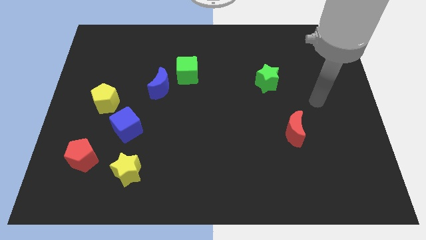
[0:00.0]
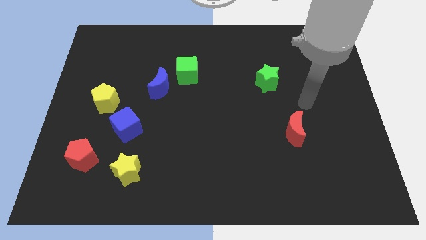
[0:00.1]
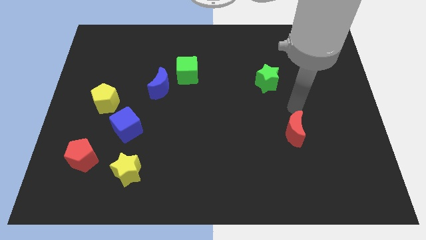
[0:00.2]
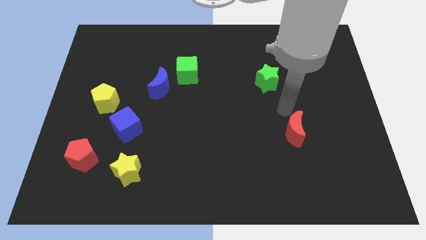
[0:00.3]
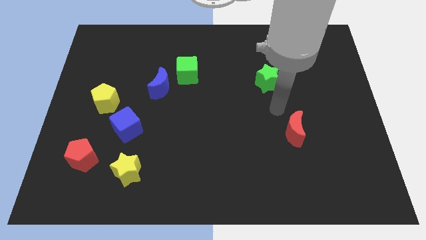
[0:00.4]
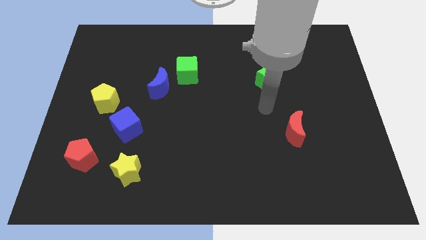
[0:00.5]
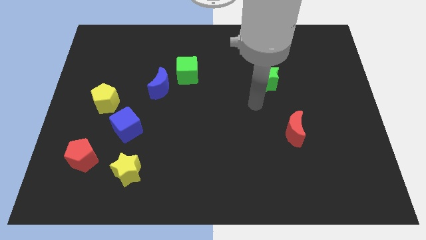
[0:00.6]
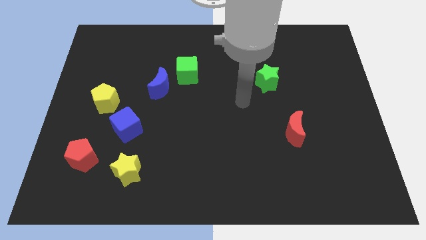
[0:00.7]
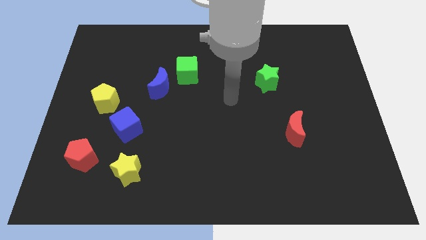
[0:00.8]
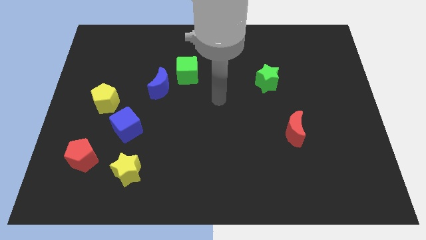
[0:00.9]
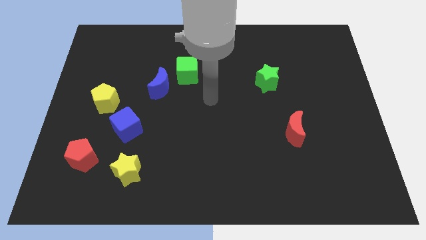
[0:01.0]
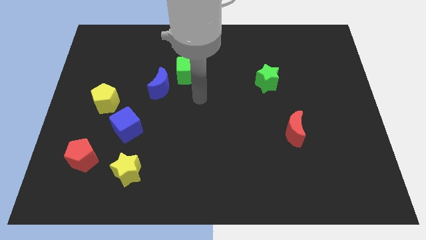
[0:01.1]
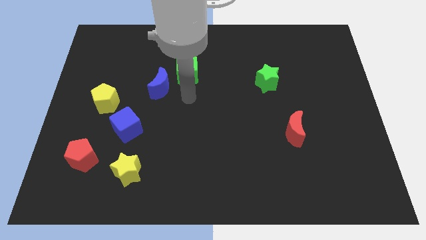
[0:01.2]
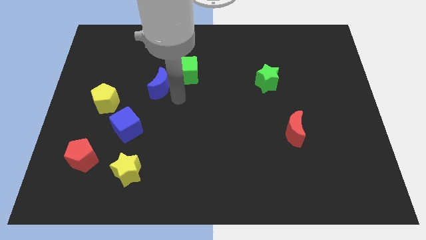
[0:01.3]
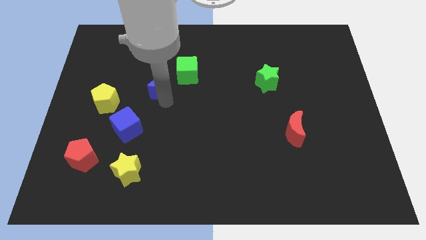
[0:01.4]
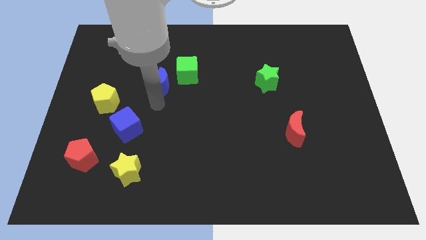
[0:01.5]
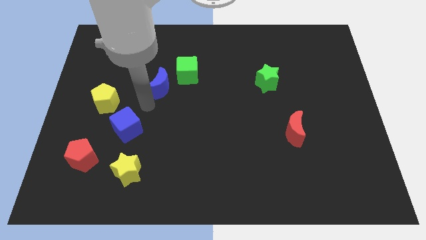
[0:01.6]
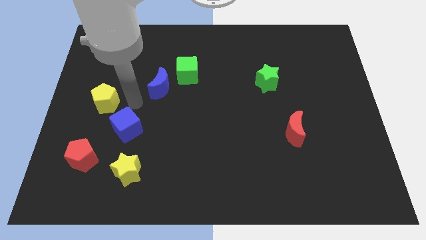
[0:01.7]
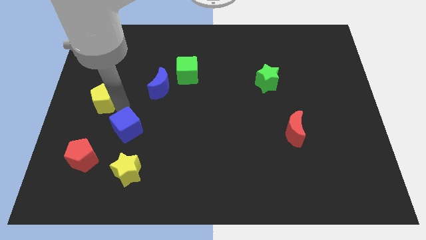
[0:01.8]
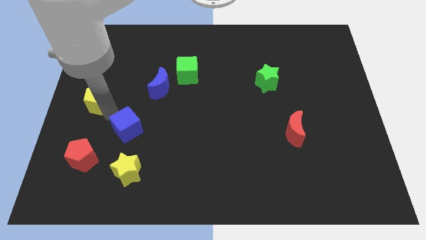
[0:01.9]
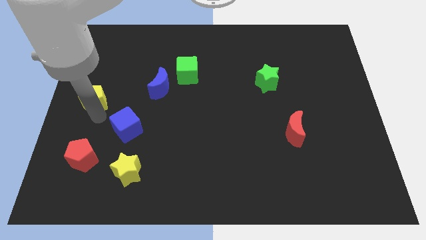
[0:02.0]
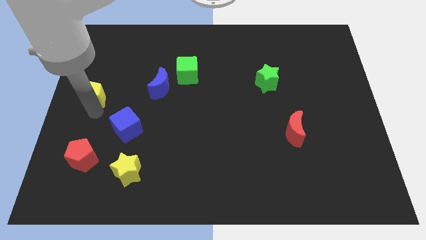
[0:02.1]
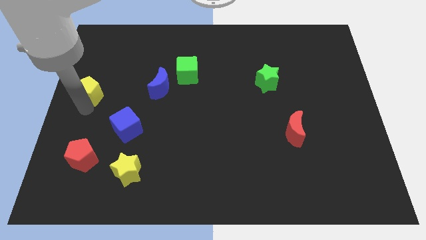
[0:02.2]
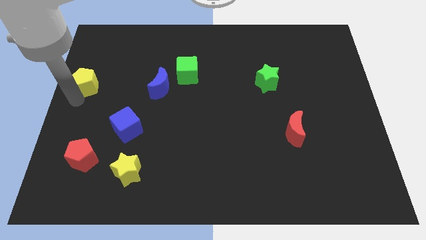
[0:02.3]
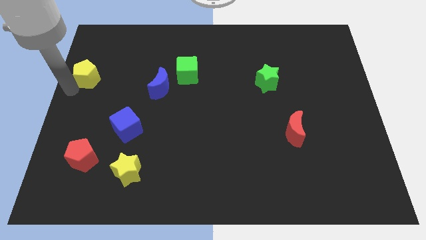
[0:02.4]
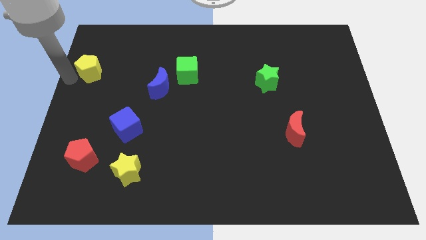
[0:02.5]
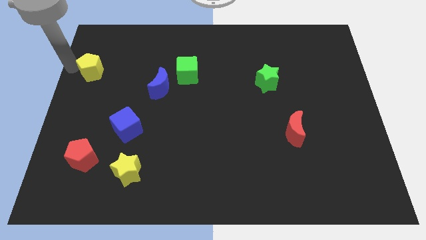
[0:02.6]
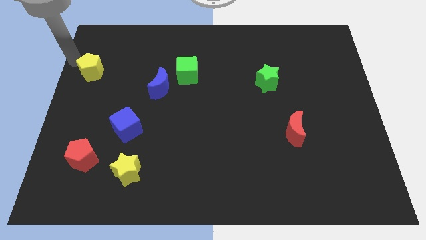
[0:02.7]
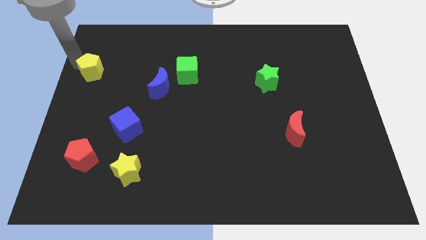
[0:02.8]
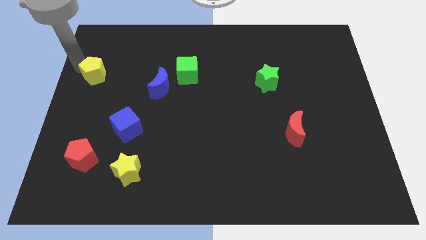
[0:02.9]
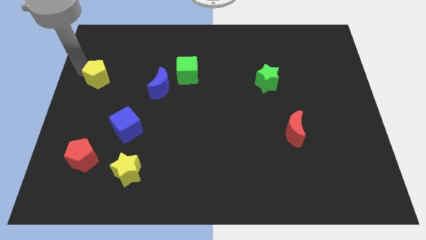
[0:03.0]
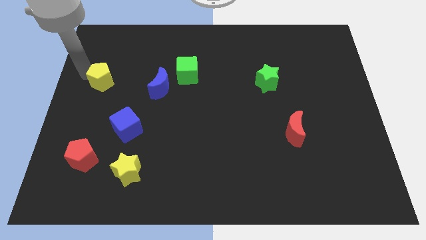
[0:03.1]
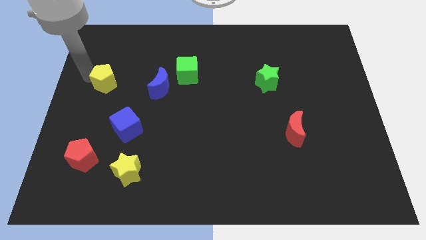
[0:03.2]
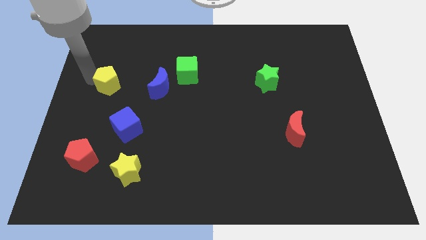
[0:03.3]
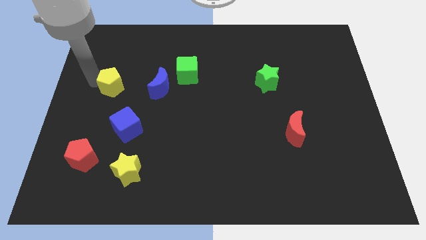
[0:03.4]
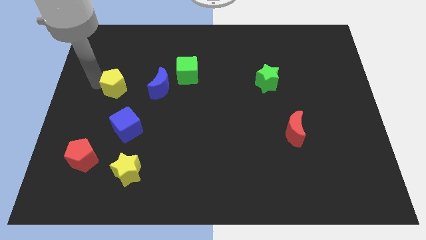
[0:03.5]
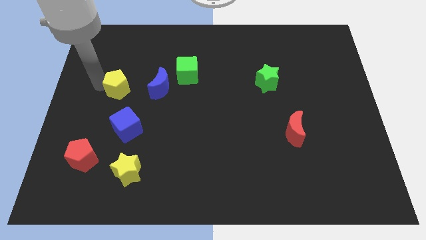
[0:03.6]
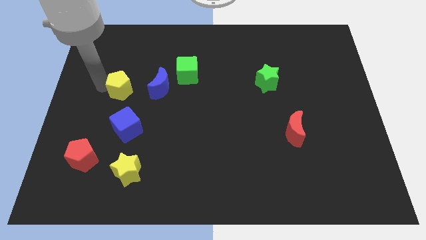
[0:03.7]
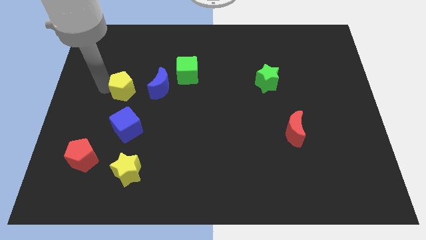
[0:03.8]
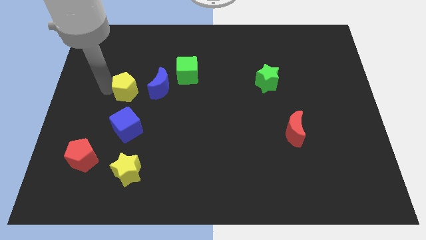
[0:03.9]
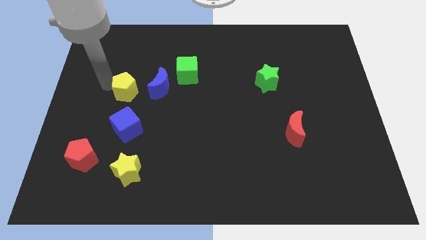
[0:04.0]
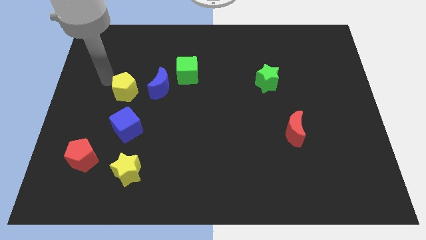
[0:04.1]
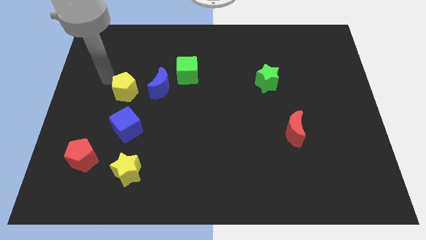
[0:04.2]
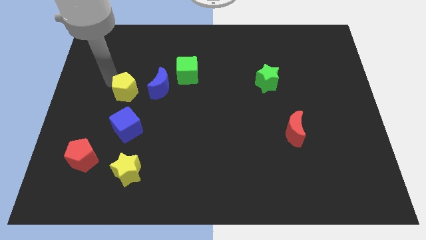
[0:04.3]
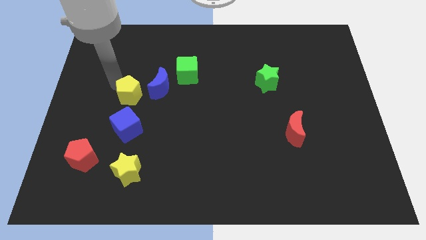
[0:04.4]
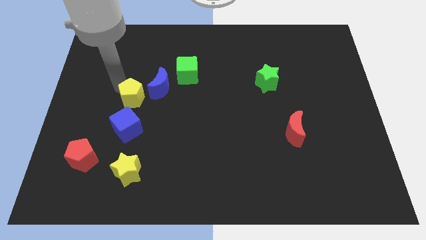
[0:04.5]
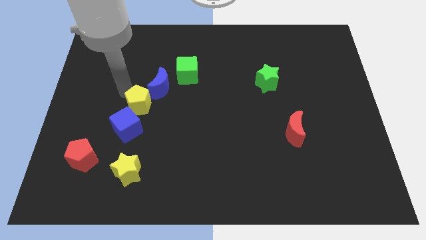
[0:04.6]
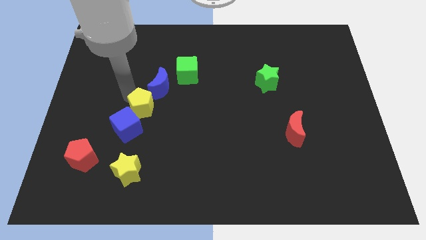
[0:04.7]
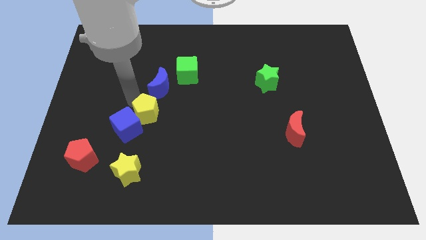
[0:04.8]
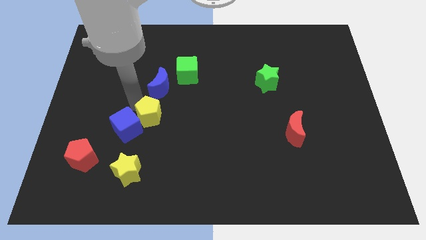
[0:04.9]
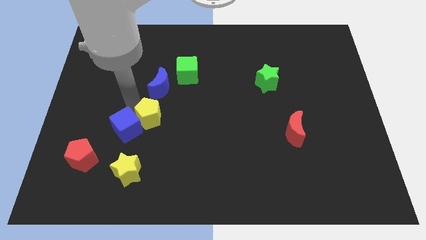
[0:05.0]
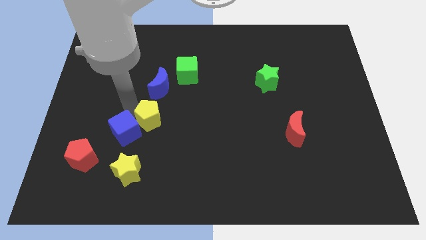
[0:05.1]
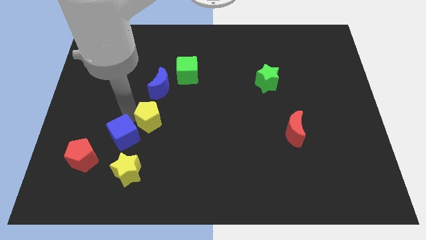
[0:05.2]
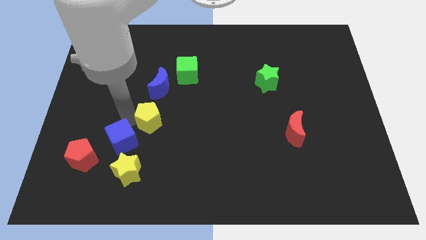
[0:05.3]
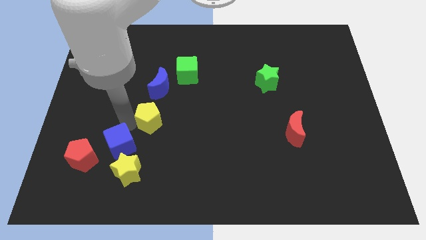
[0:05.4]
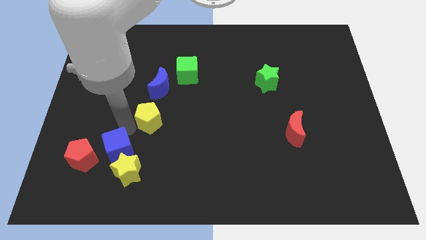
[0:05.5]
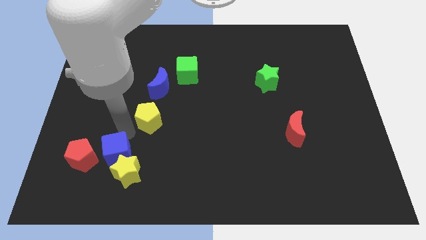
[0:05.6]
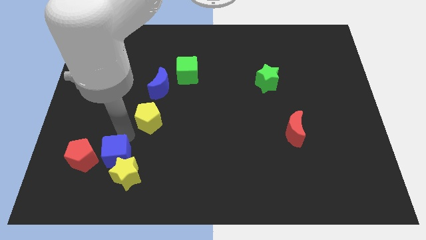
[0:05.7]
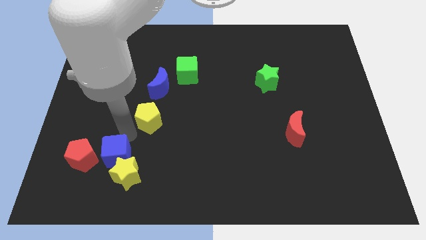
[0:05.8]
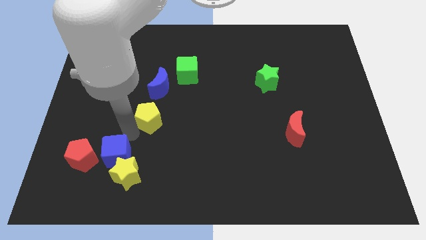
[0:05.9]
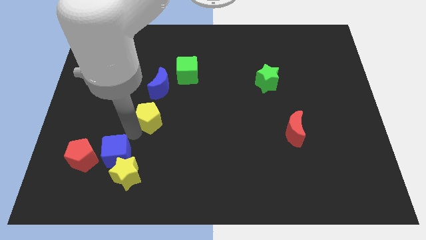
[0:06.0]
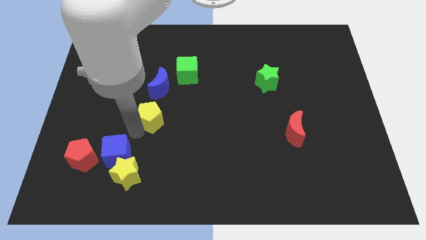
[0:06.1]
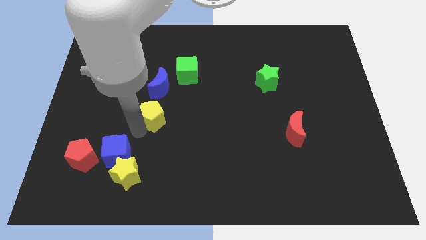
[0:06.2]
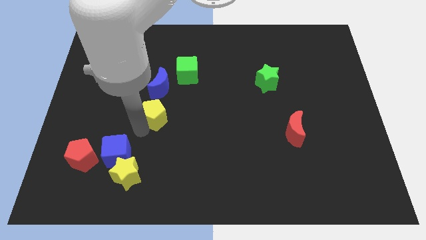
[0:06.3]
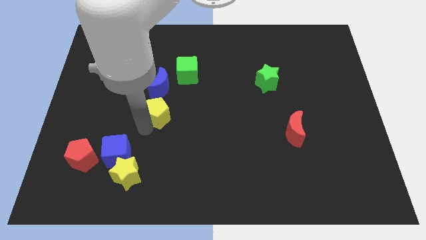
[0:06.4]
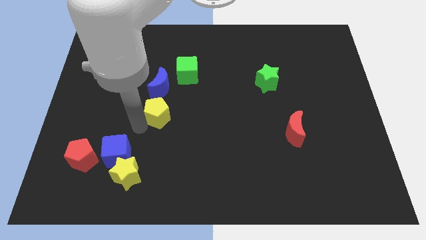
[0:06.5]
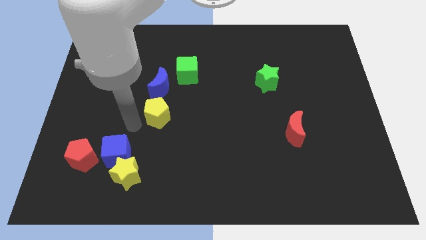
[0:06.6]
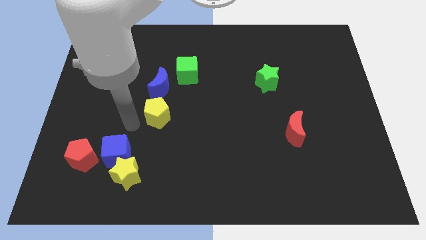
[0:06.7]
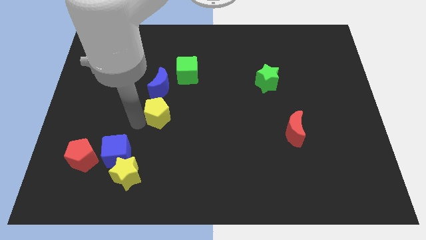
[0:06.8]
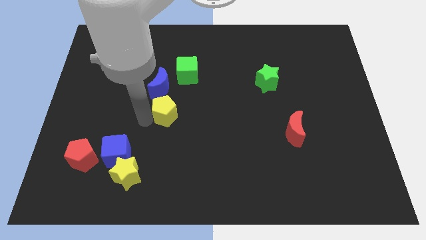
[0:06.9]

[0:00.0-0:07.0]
slide the yellow pentagon to the middle of the board

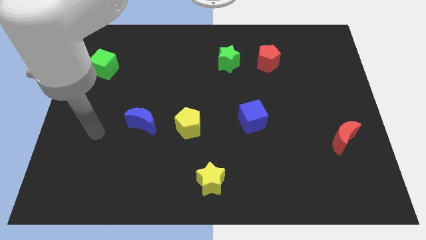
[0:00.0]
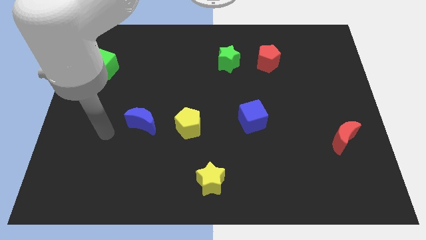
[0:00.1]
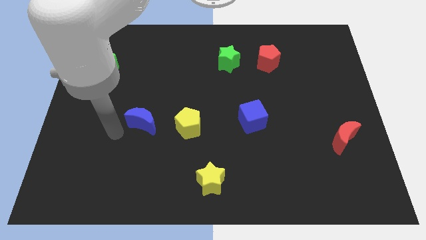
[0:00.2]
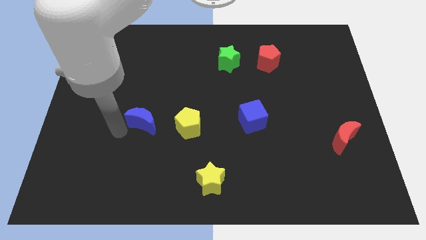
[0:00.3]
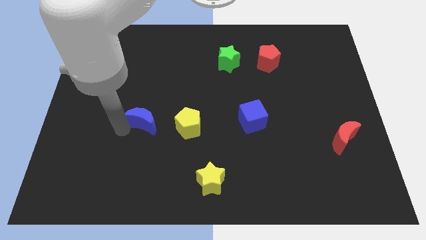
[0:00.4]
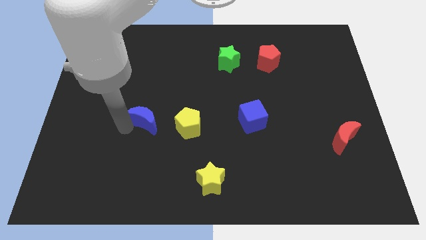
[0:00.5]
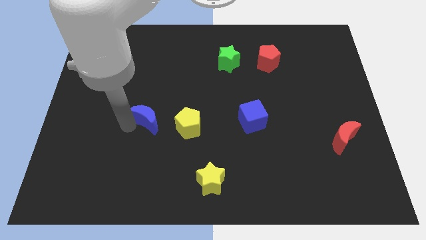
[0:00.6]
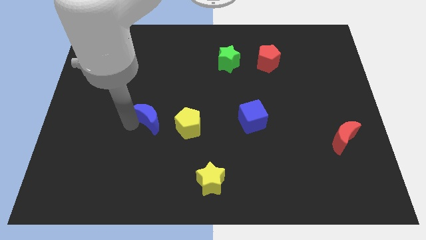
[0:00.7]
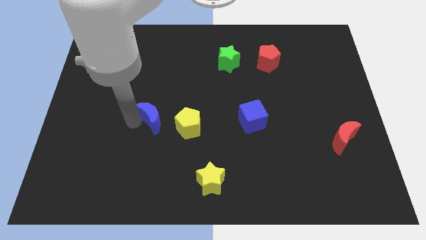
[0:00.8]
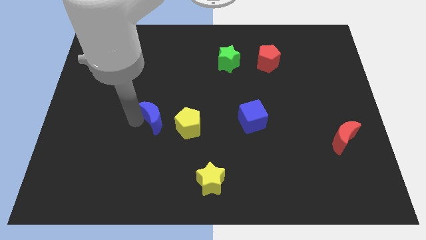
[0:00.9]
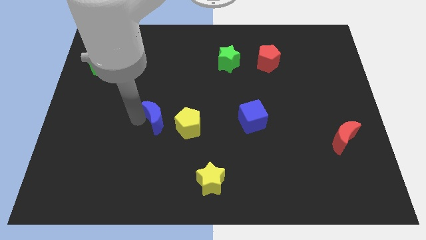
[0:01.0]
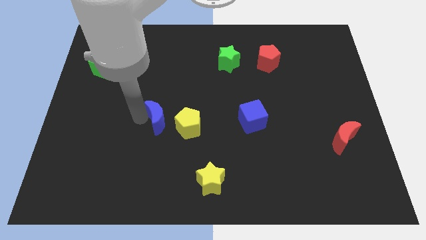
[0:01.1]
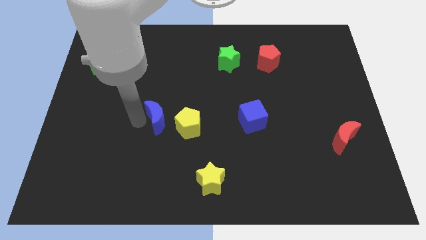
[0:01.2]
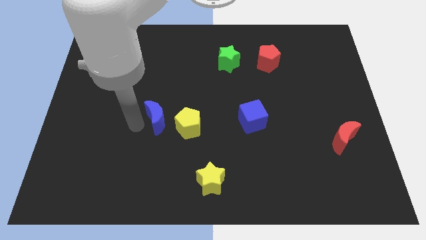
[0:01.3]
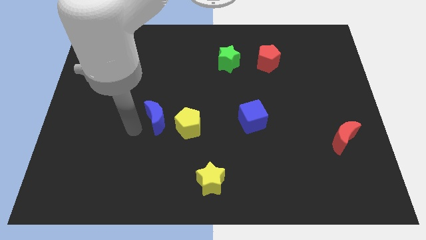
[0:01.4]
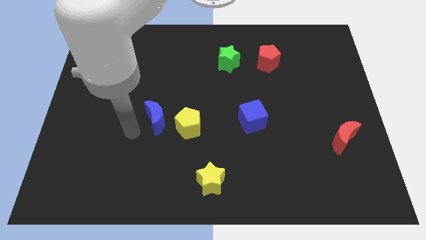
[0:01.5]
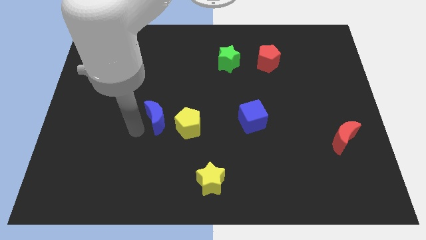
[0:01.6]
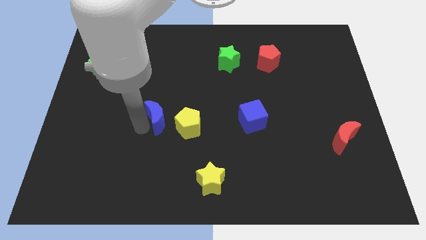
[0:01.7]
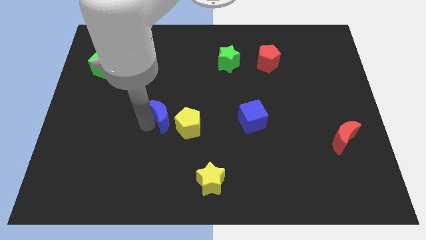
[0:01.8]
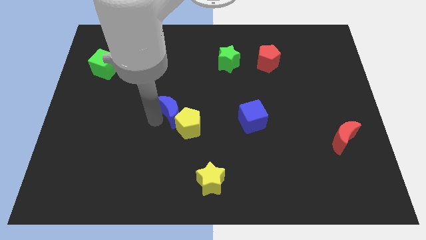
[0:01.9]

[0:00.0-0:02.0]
push the blue moon to the center of the board
